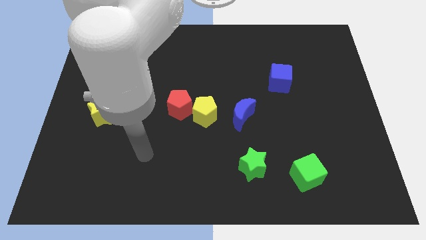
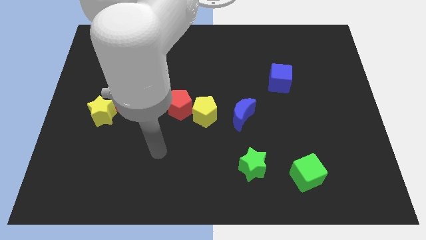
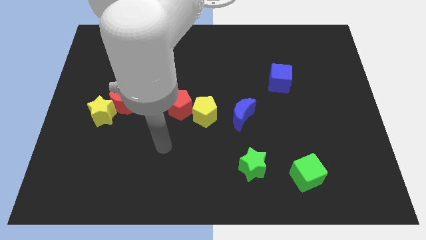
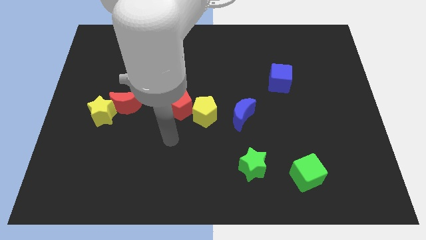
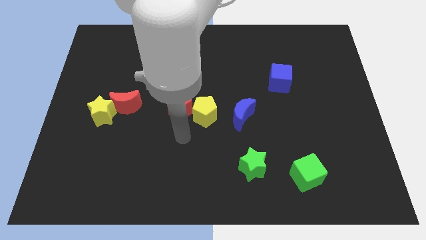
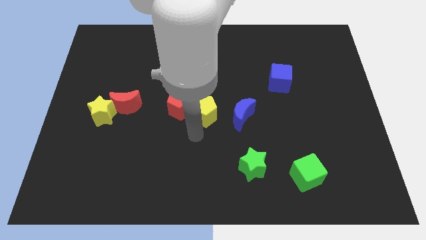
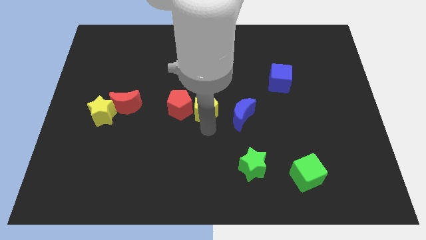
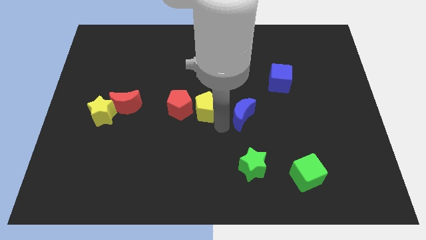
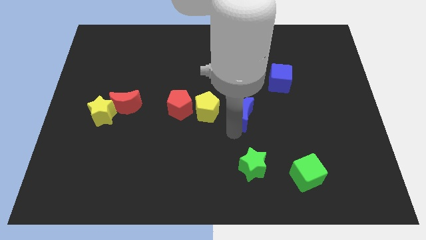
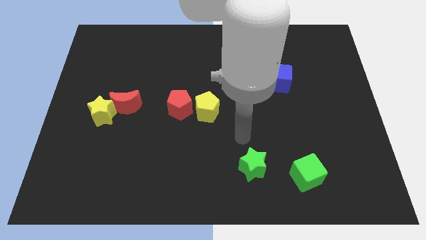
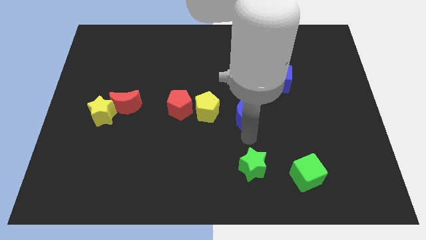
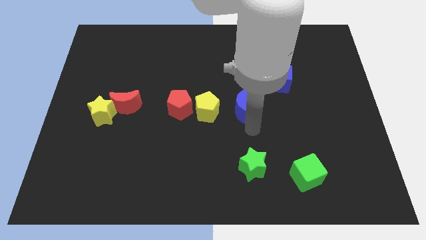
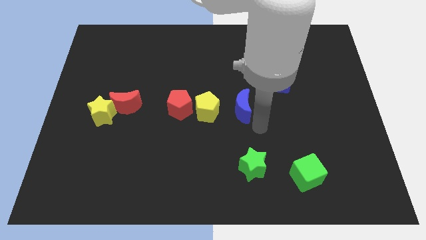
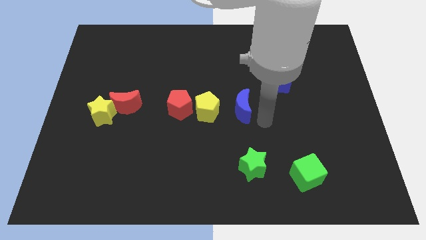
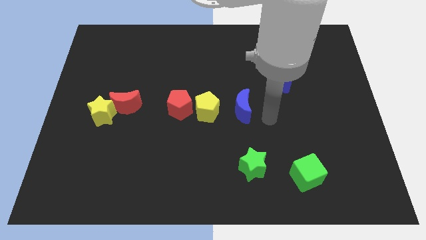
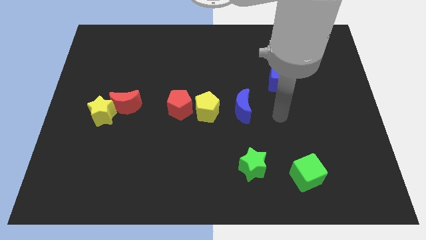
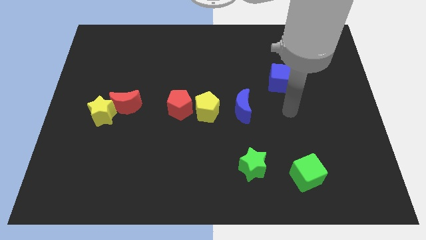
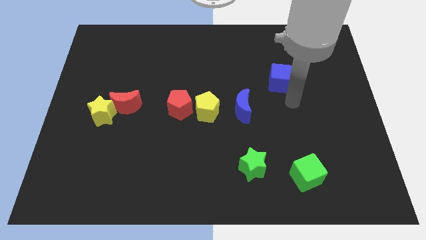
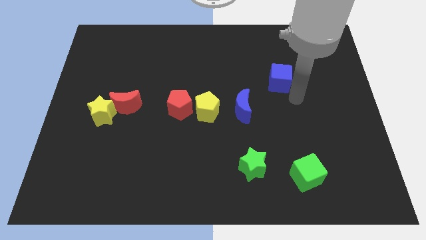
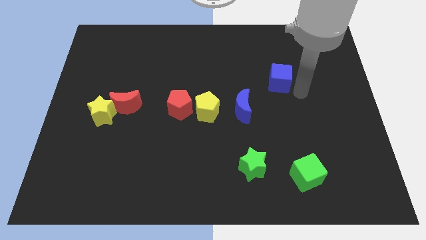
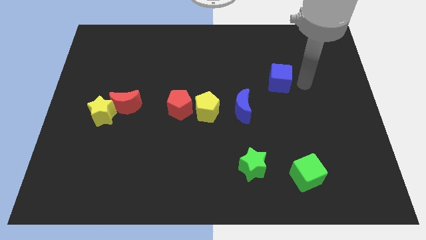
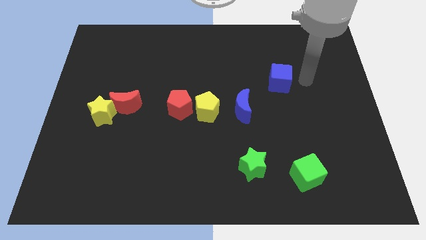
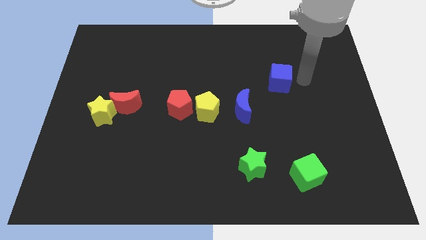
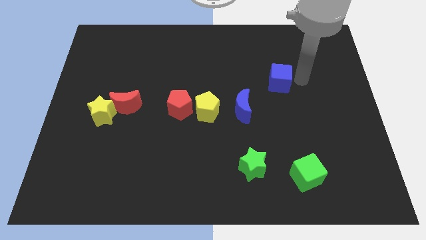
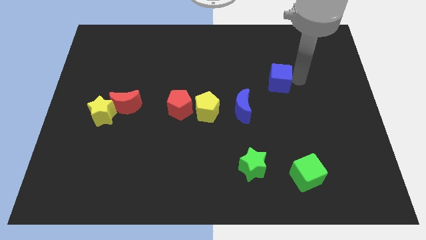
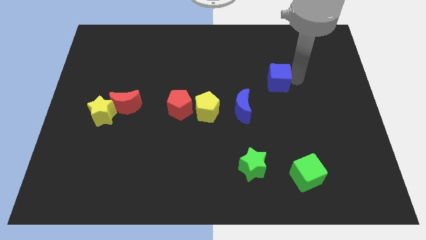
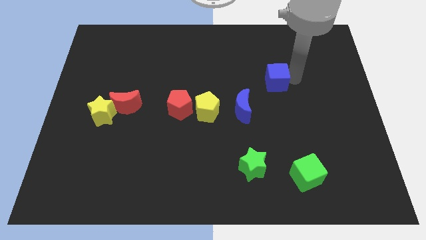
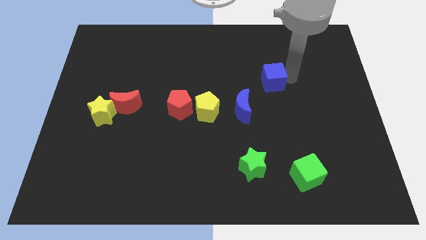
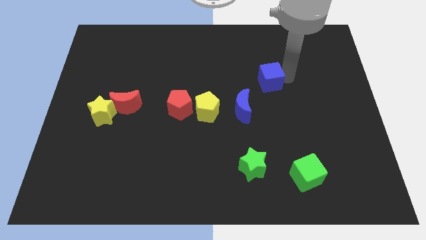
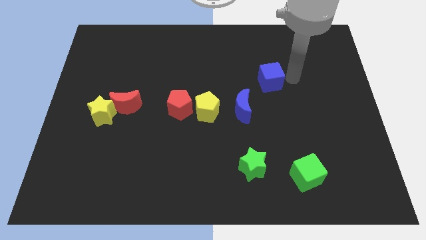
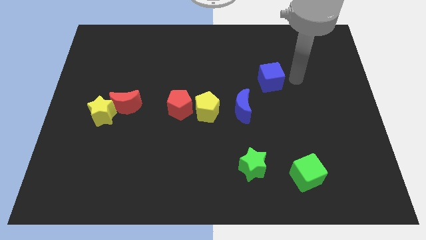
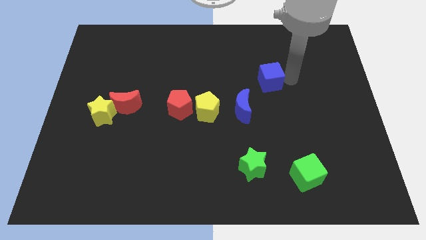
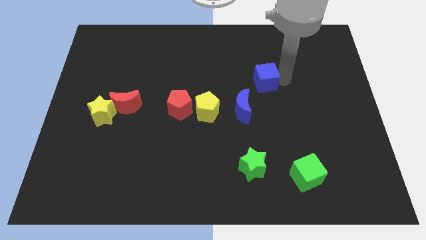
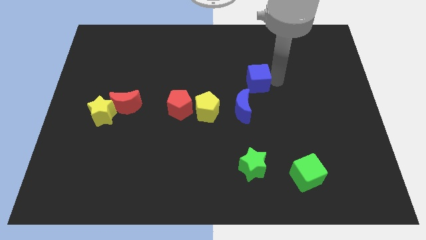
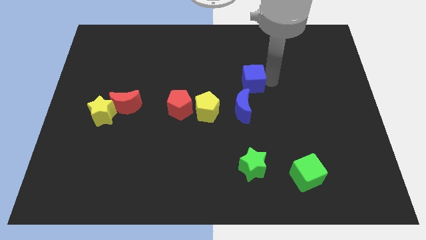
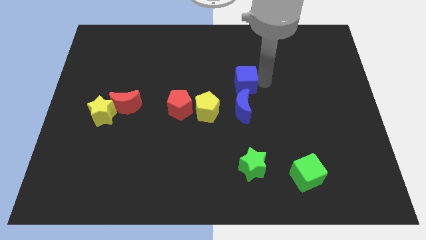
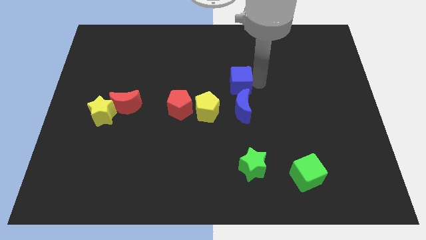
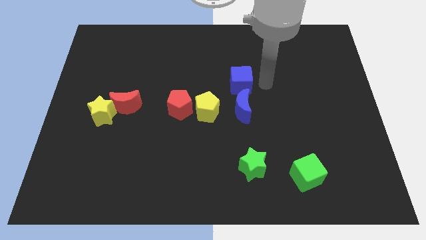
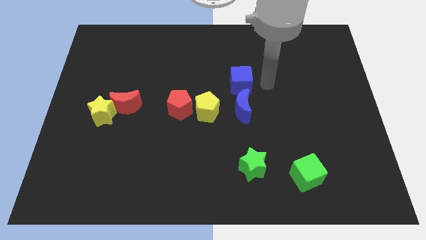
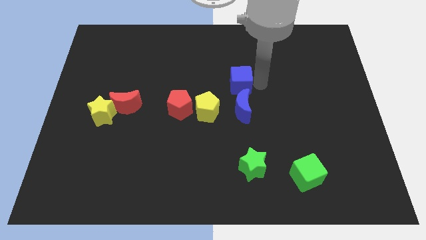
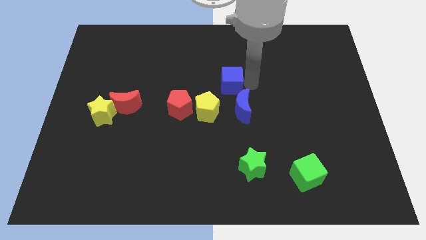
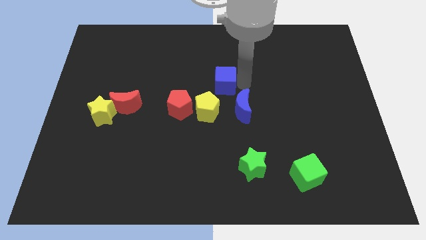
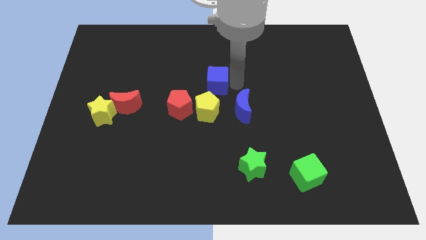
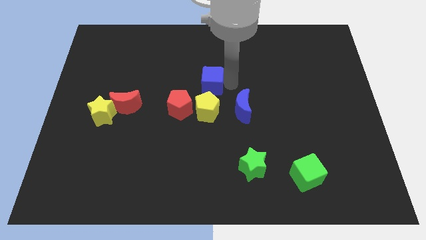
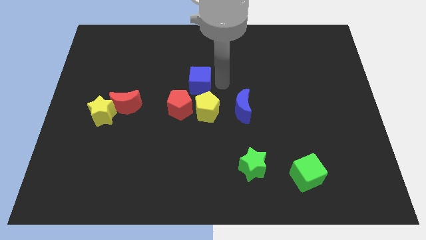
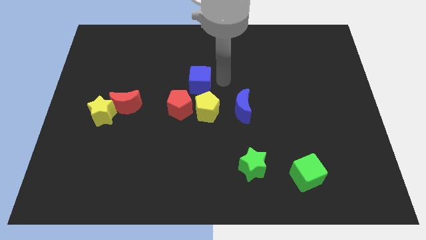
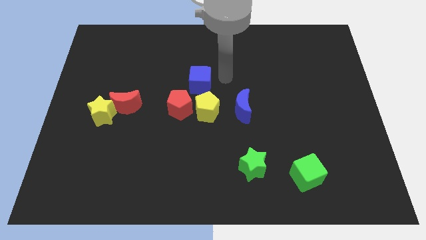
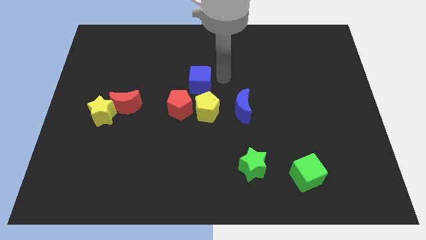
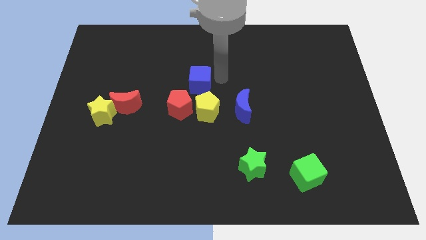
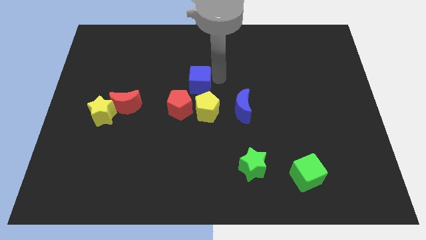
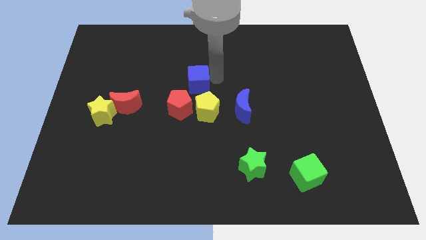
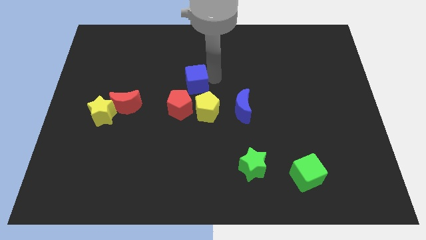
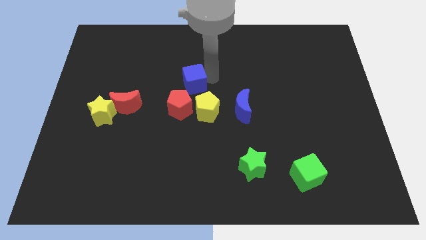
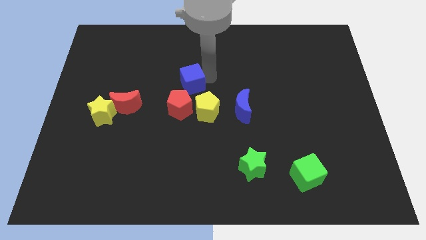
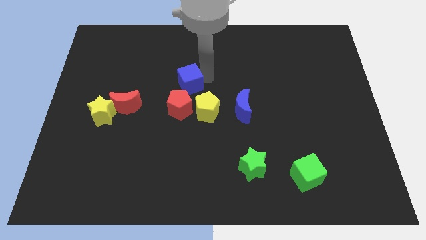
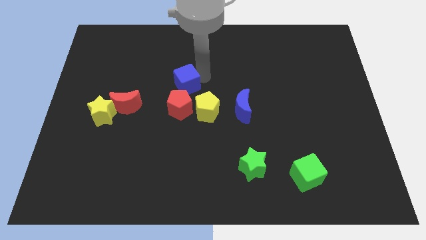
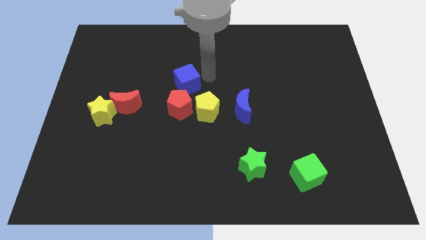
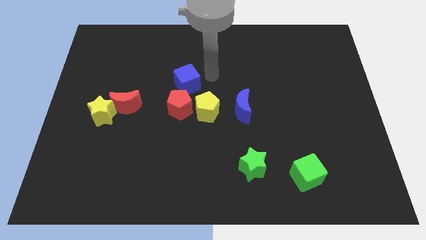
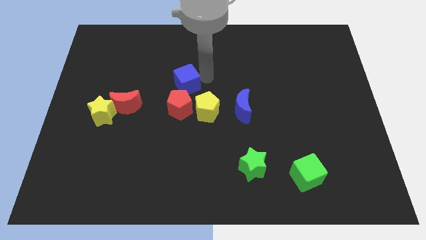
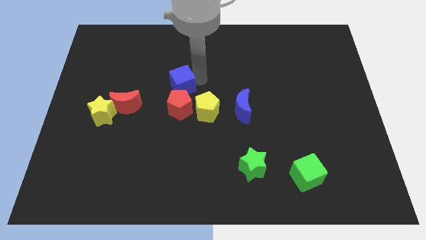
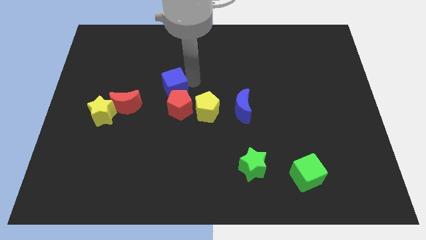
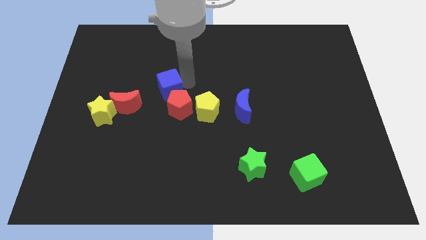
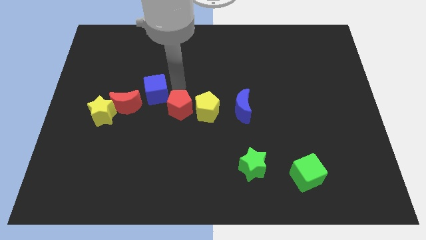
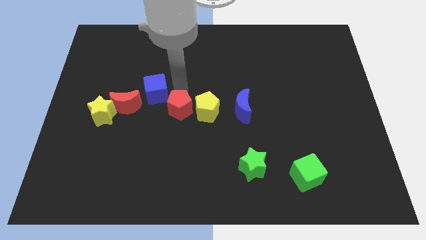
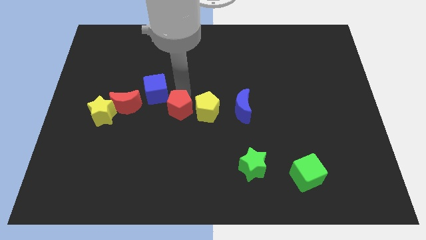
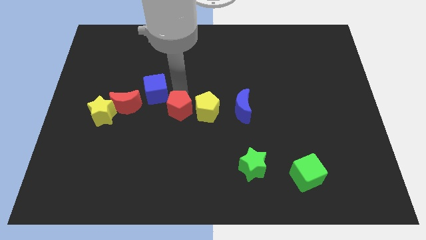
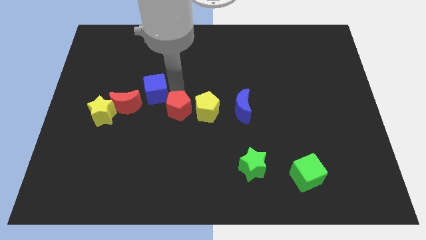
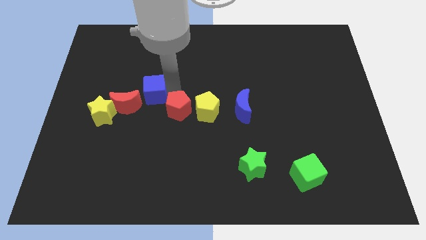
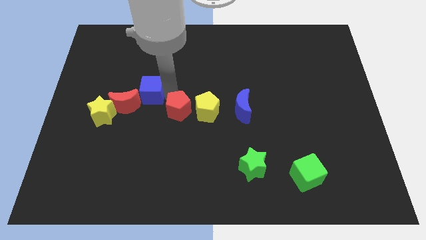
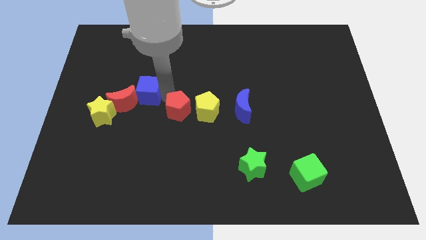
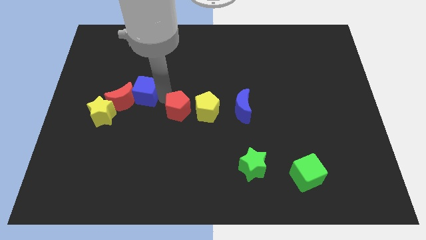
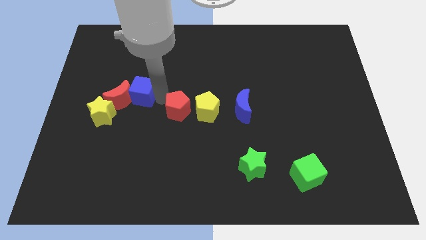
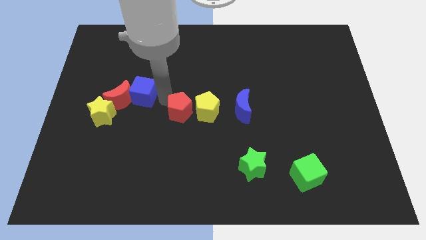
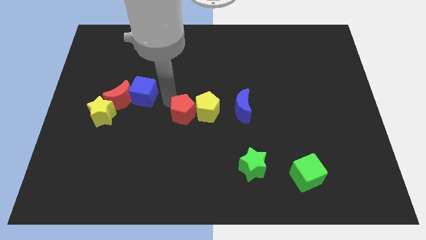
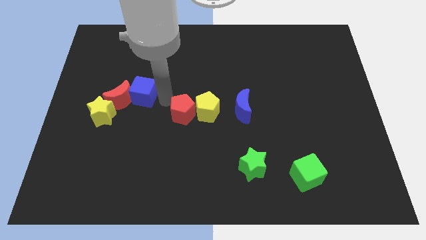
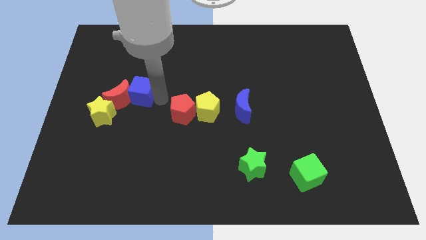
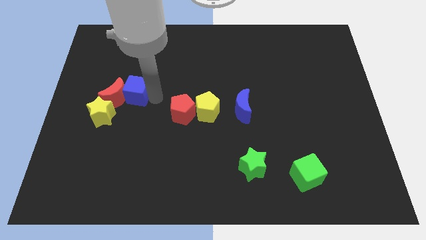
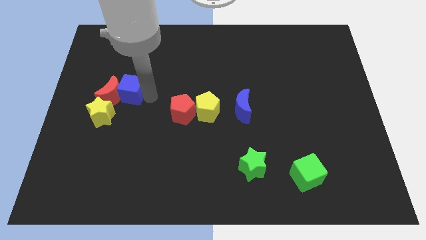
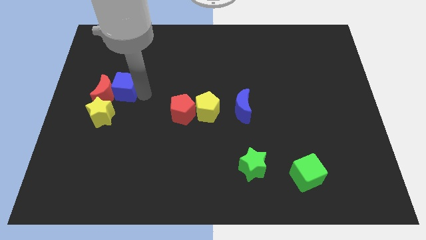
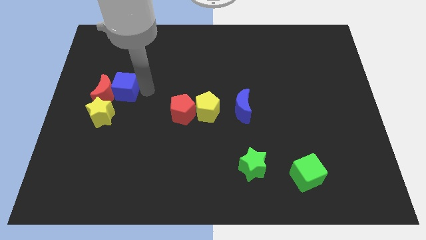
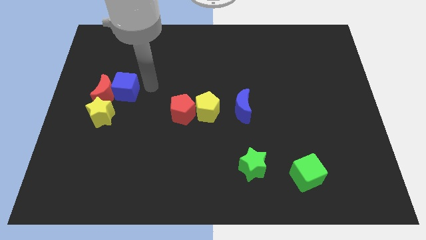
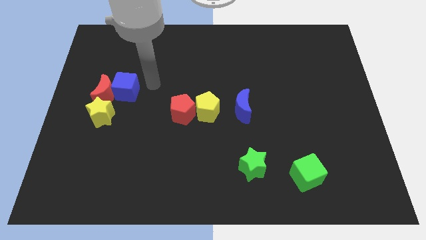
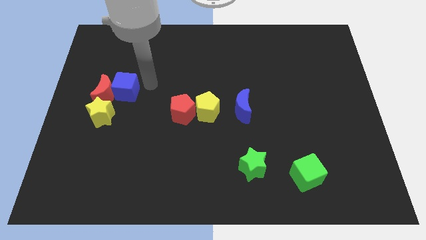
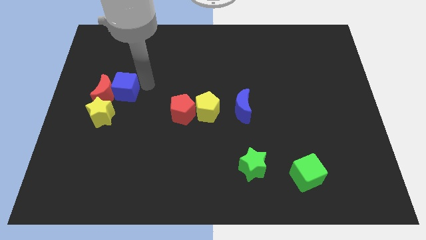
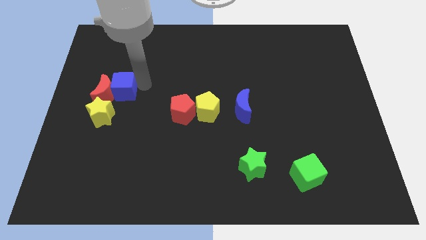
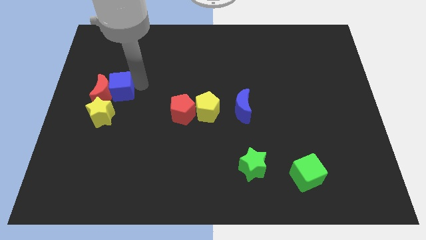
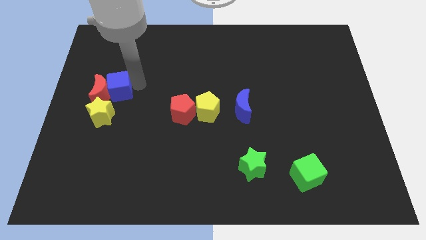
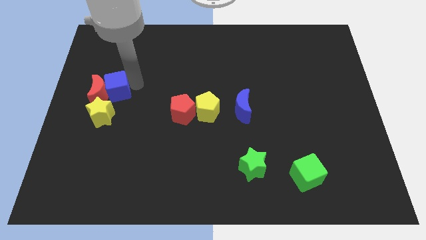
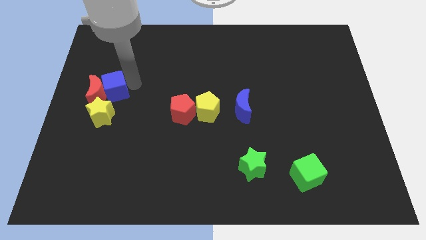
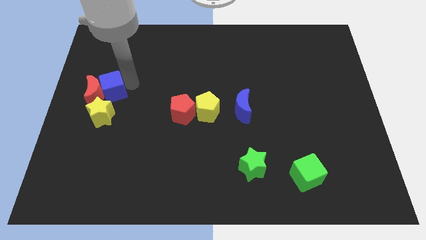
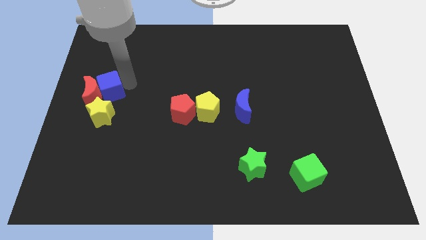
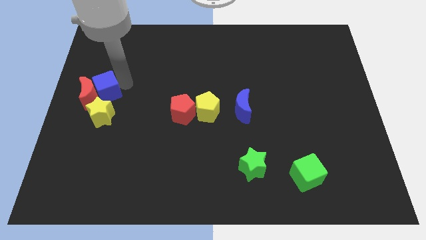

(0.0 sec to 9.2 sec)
slide the blue cube to the left side
